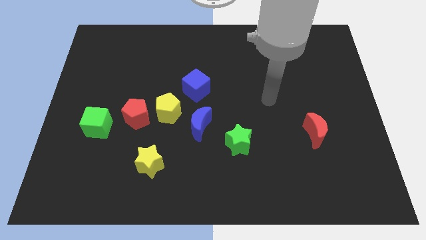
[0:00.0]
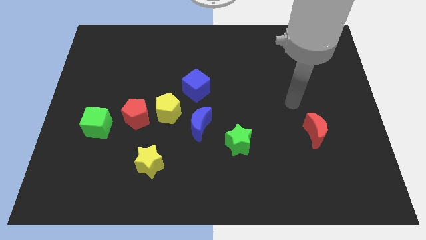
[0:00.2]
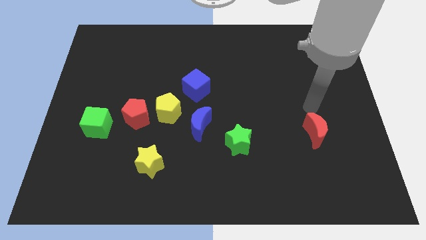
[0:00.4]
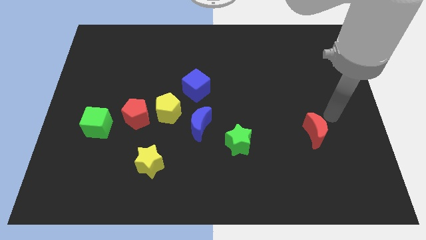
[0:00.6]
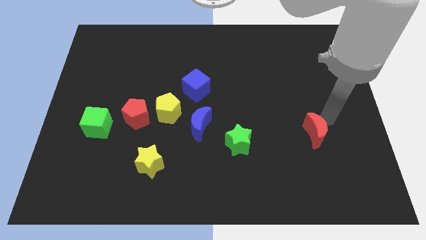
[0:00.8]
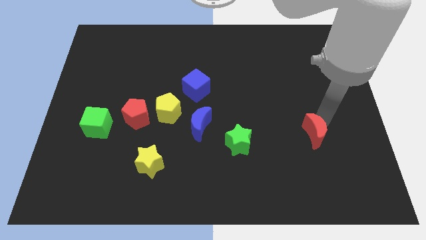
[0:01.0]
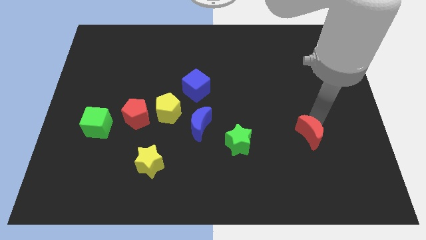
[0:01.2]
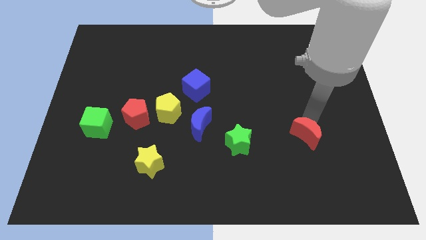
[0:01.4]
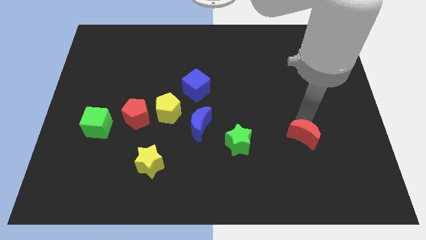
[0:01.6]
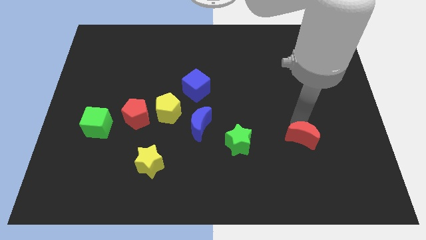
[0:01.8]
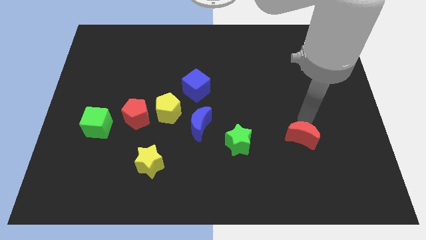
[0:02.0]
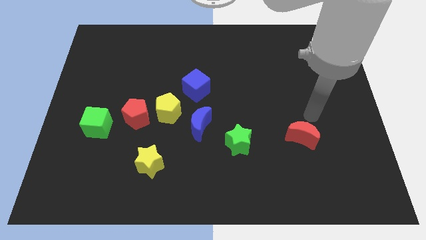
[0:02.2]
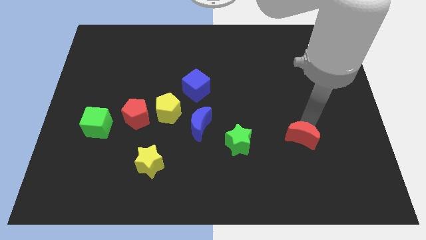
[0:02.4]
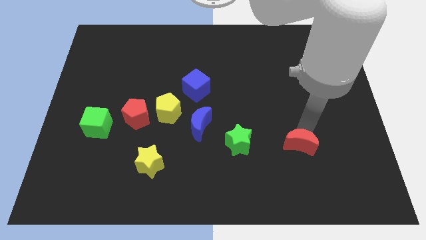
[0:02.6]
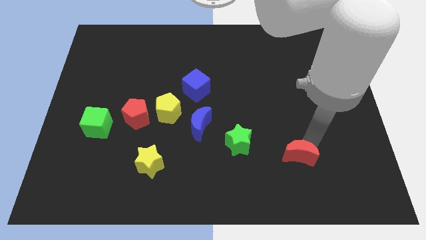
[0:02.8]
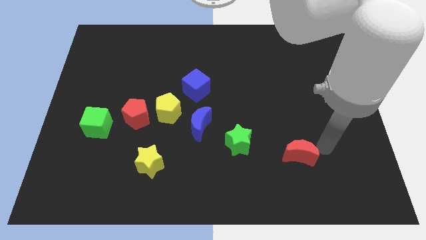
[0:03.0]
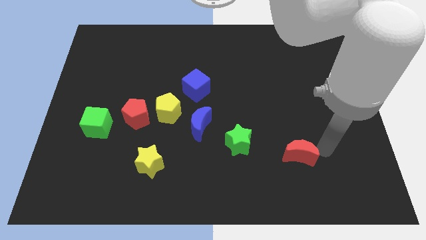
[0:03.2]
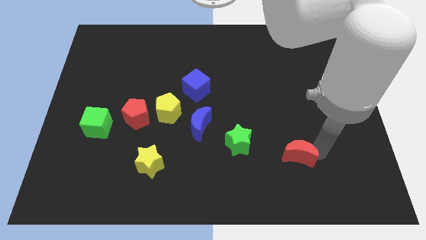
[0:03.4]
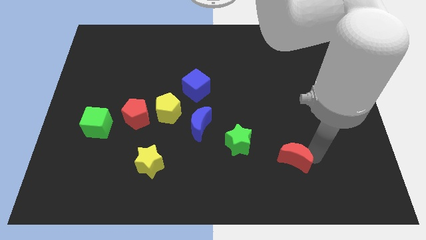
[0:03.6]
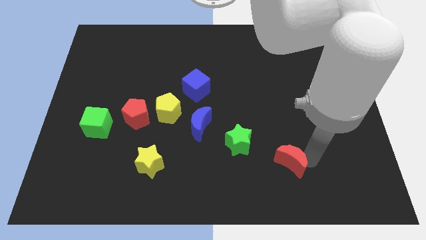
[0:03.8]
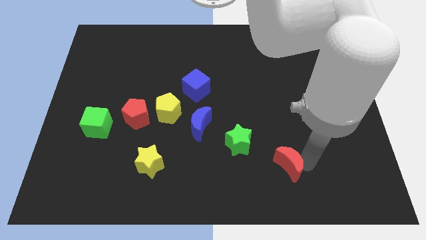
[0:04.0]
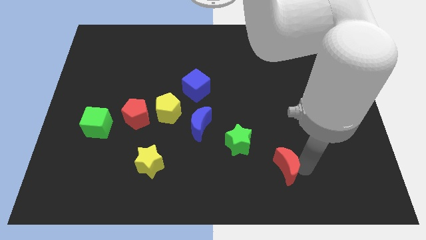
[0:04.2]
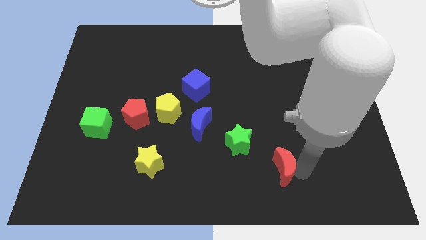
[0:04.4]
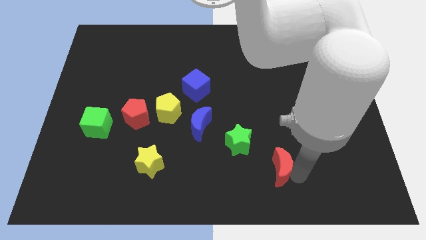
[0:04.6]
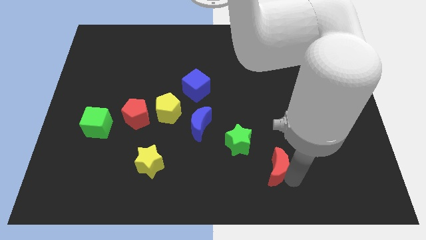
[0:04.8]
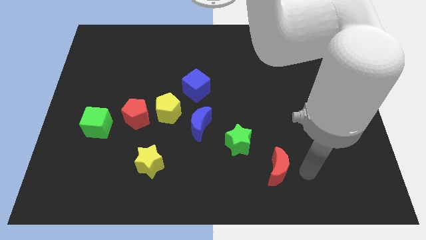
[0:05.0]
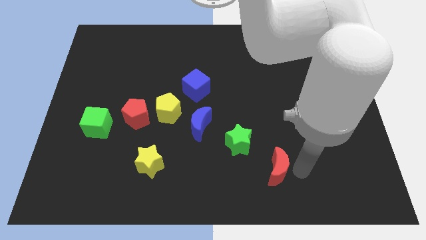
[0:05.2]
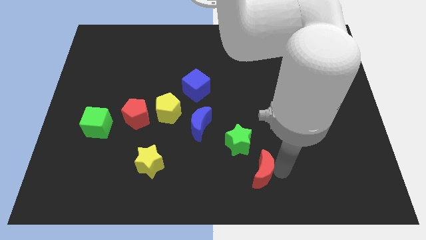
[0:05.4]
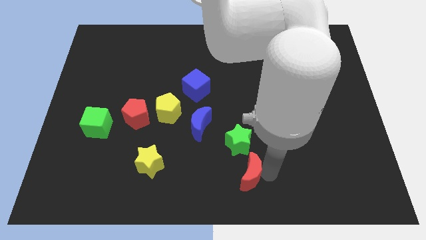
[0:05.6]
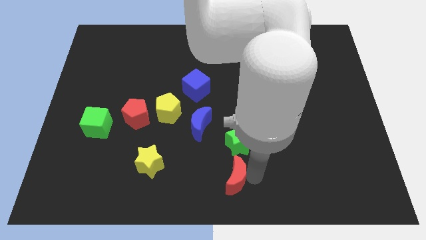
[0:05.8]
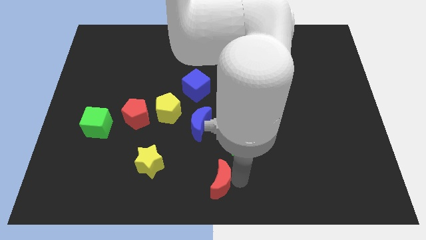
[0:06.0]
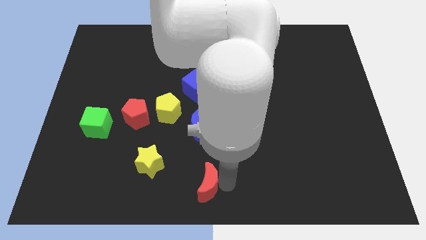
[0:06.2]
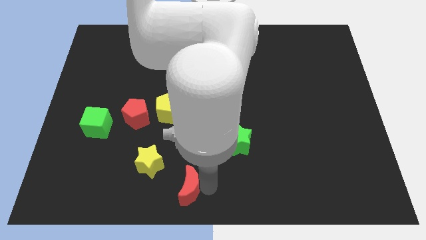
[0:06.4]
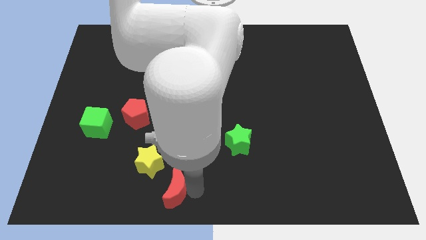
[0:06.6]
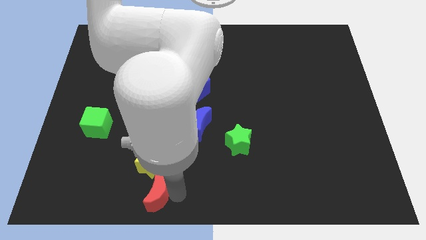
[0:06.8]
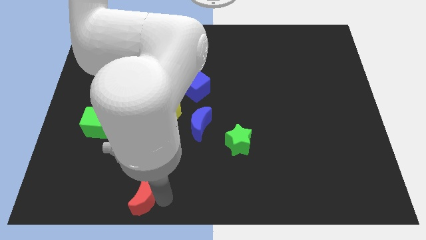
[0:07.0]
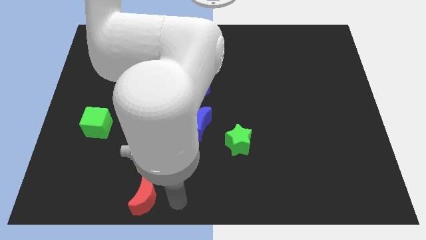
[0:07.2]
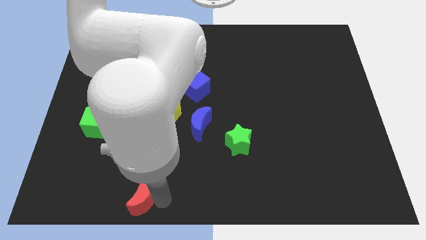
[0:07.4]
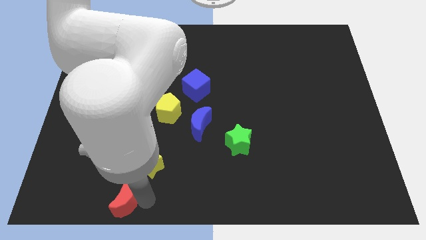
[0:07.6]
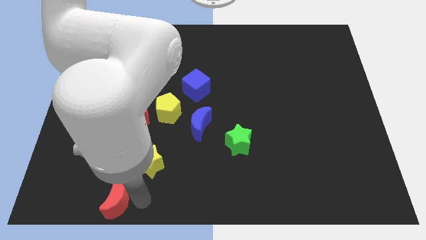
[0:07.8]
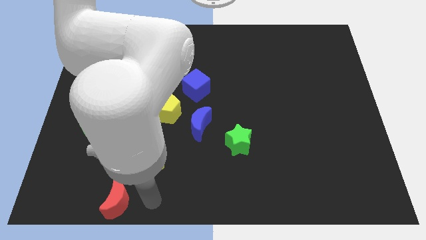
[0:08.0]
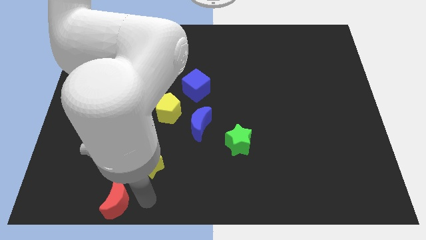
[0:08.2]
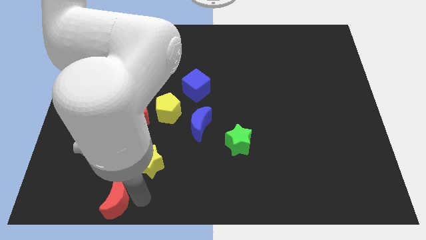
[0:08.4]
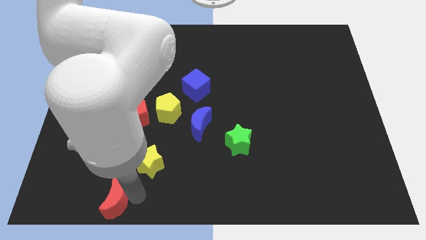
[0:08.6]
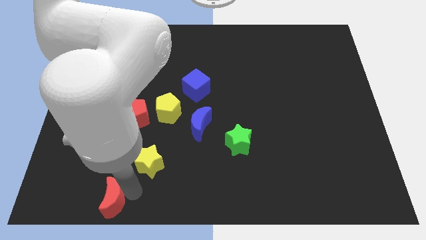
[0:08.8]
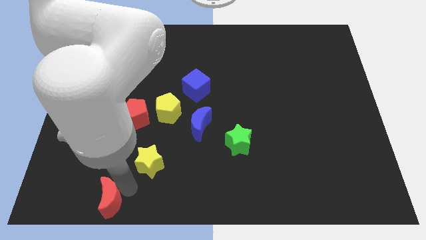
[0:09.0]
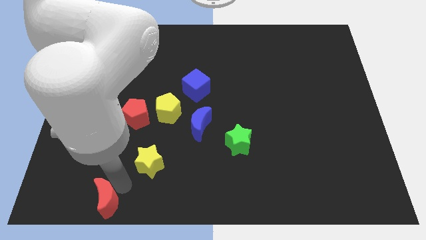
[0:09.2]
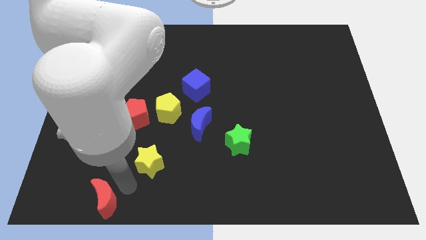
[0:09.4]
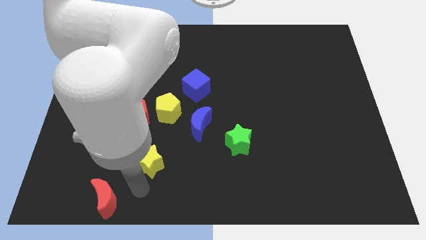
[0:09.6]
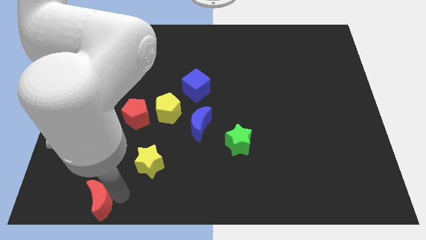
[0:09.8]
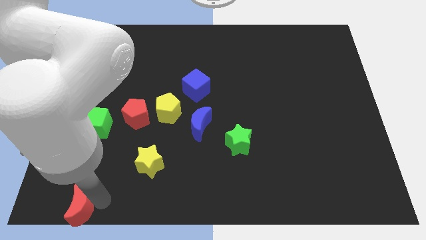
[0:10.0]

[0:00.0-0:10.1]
slide the red moon to the bottom left of the board

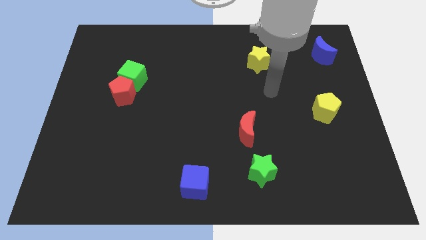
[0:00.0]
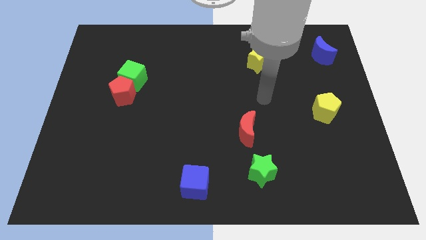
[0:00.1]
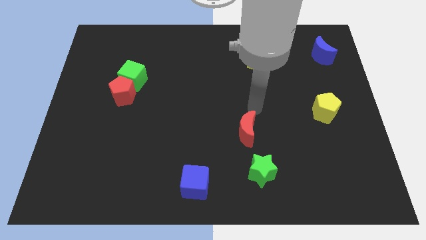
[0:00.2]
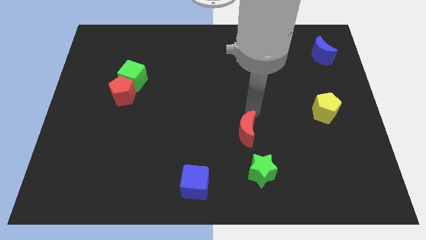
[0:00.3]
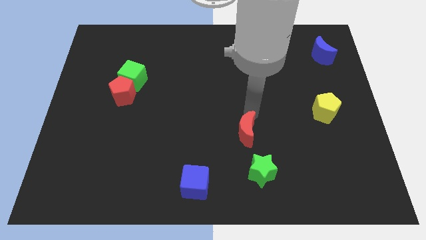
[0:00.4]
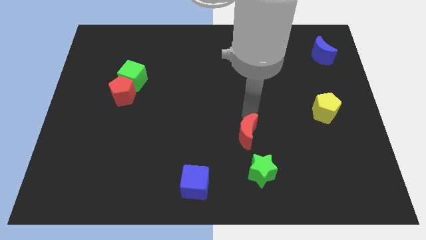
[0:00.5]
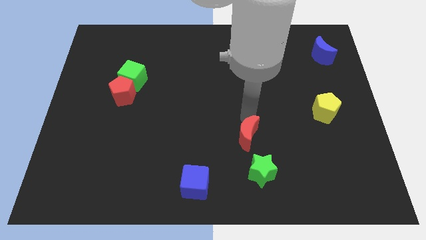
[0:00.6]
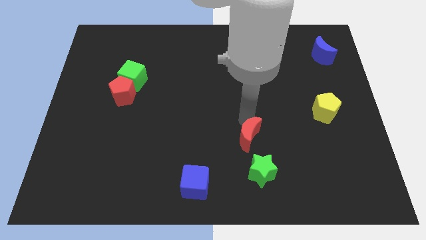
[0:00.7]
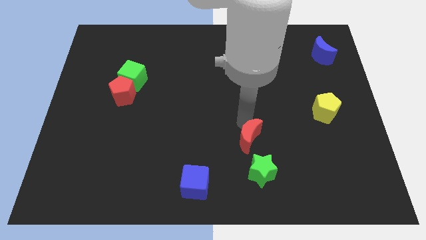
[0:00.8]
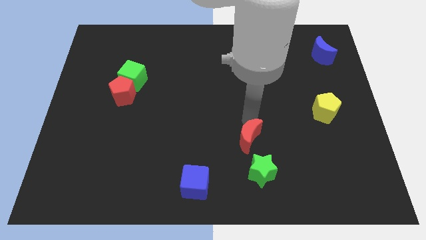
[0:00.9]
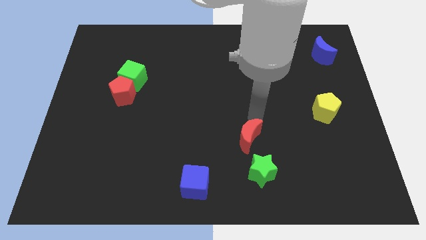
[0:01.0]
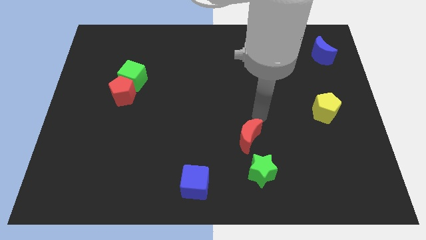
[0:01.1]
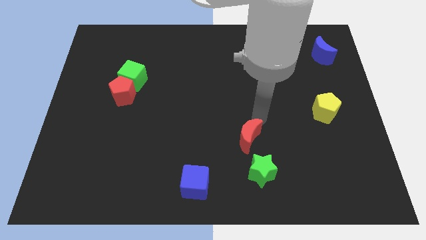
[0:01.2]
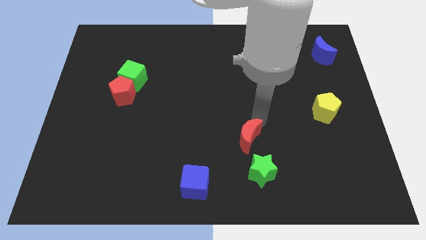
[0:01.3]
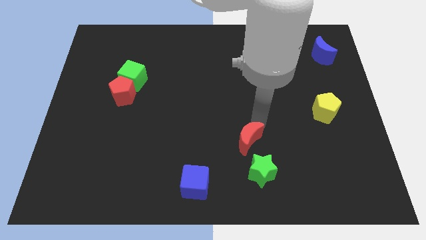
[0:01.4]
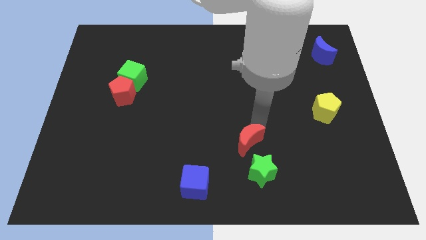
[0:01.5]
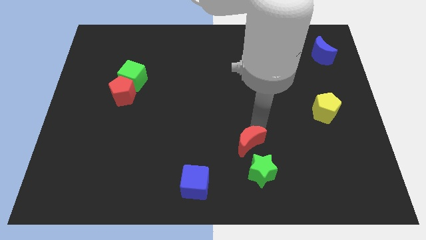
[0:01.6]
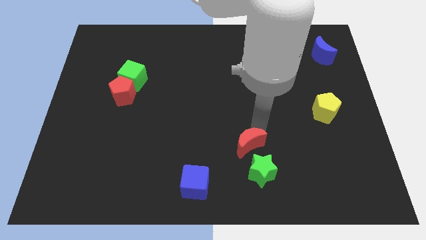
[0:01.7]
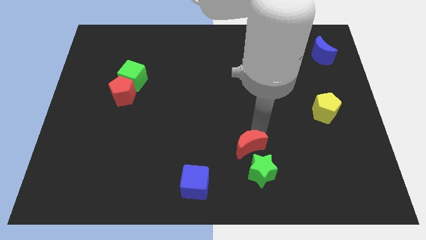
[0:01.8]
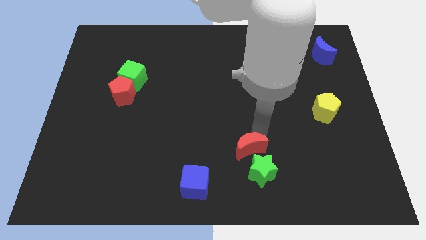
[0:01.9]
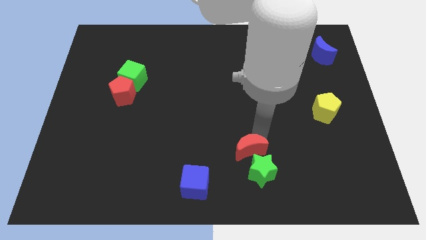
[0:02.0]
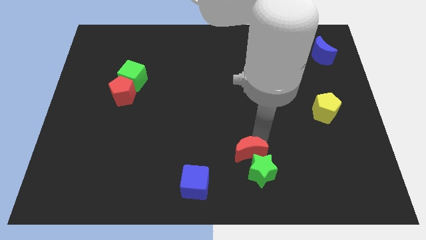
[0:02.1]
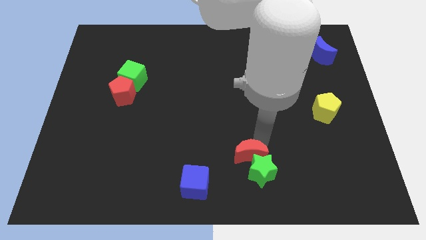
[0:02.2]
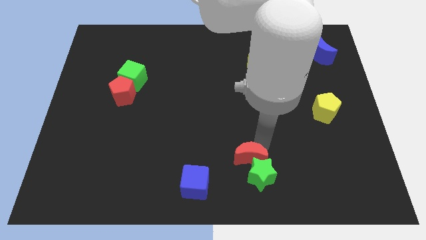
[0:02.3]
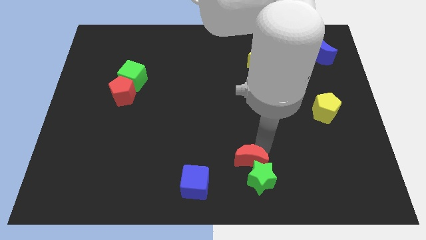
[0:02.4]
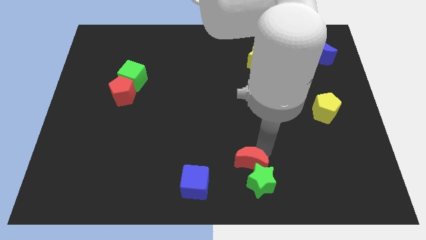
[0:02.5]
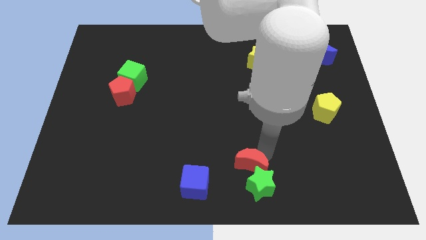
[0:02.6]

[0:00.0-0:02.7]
move the red moon to the bottom side
